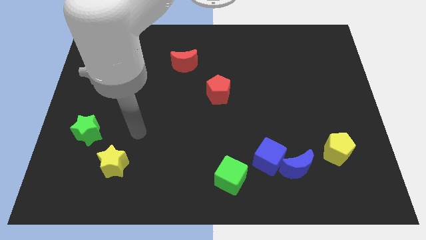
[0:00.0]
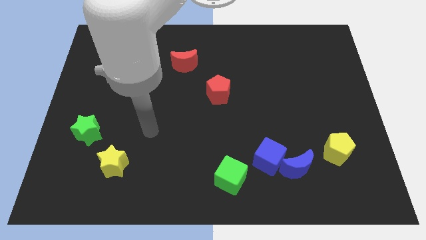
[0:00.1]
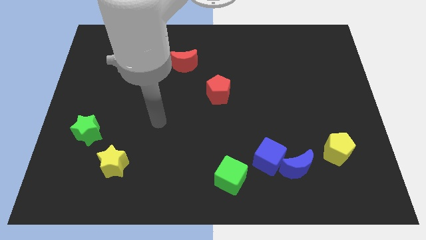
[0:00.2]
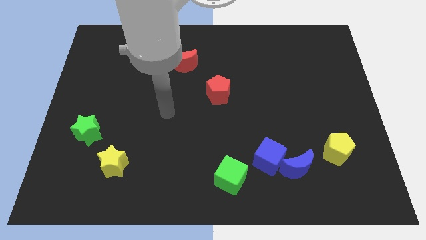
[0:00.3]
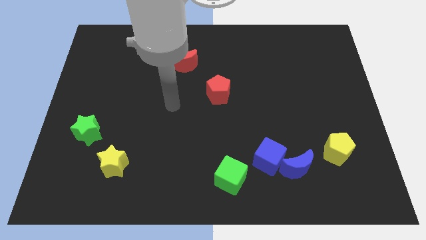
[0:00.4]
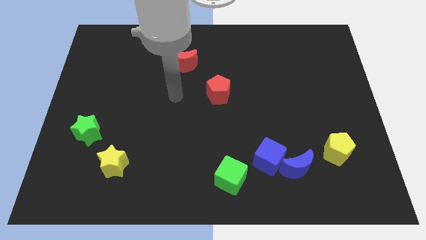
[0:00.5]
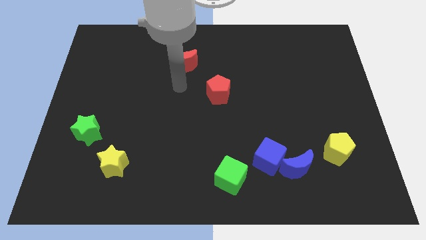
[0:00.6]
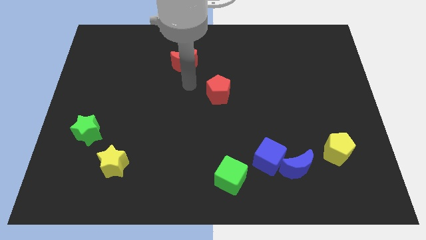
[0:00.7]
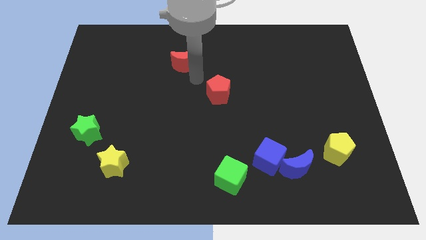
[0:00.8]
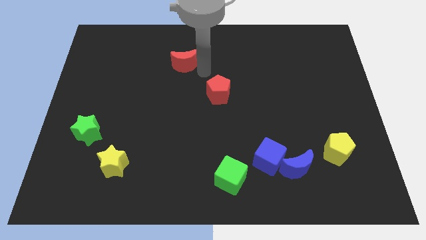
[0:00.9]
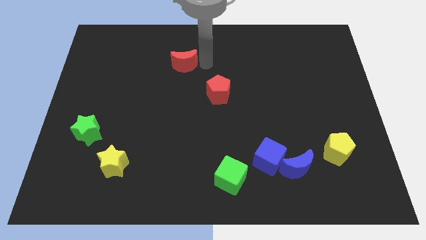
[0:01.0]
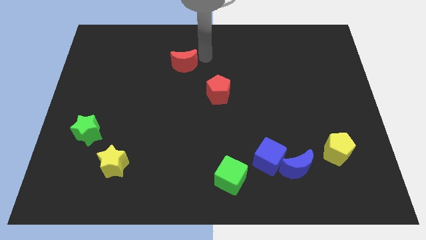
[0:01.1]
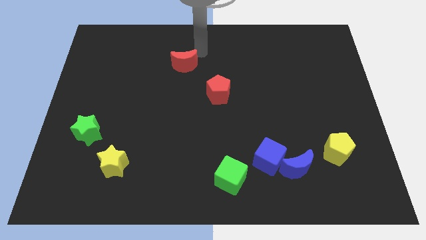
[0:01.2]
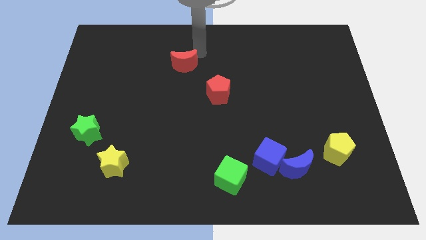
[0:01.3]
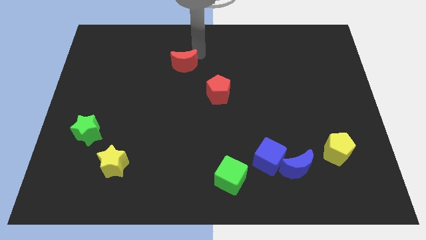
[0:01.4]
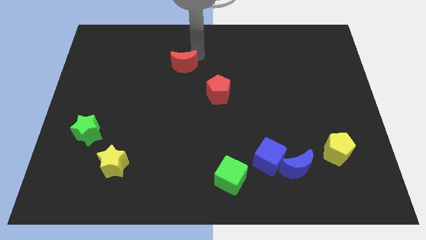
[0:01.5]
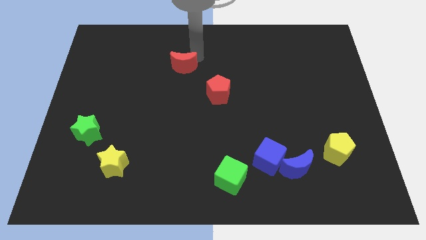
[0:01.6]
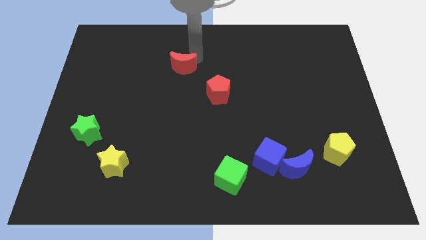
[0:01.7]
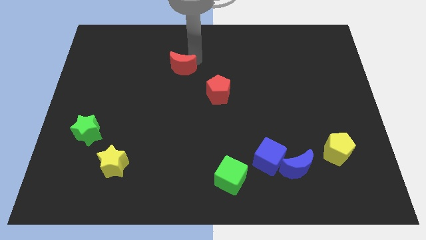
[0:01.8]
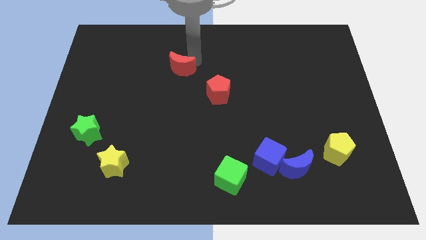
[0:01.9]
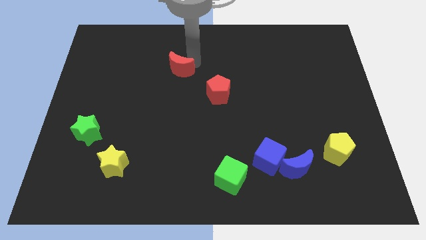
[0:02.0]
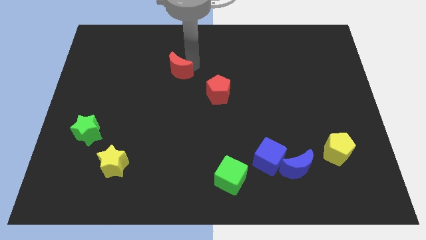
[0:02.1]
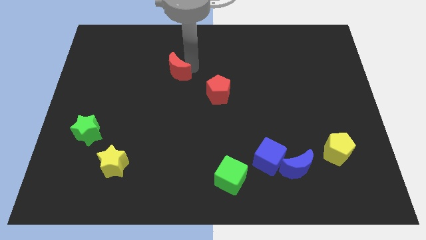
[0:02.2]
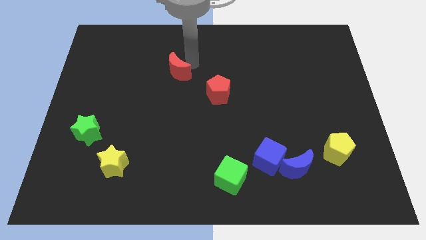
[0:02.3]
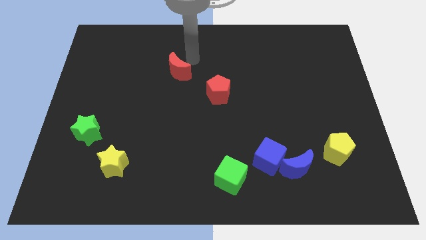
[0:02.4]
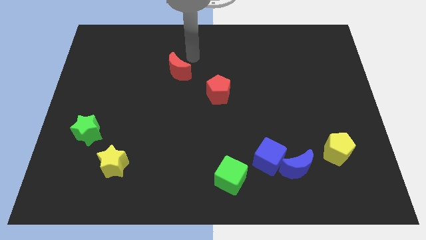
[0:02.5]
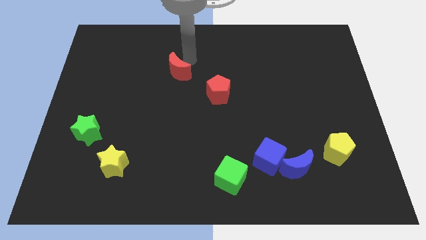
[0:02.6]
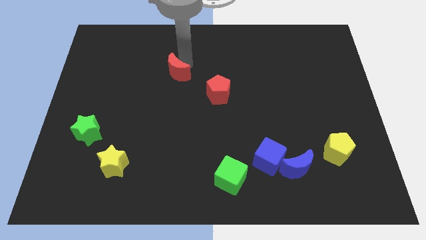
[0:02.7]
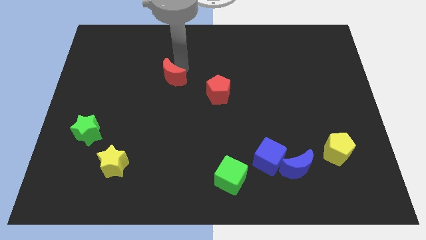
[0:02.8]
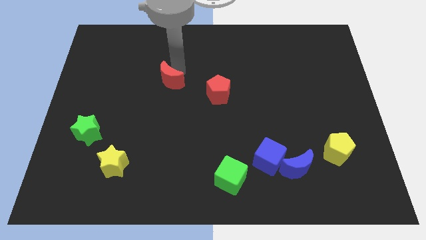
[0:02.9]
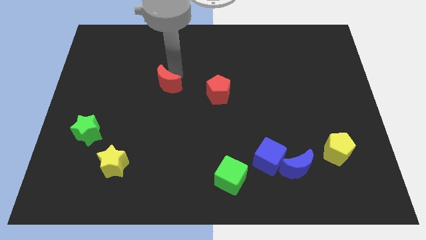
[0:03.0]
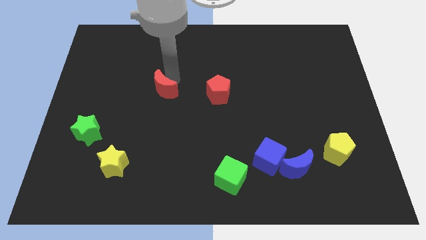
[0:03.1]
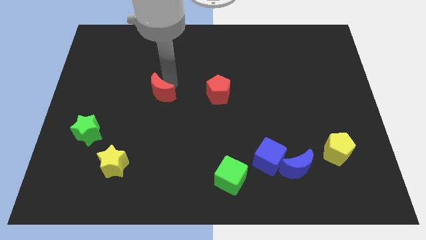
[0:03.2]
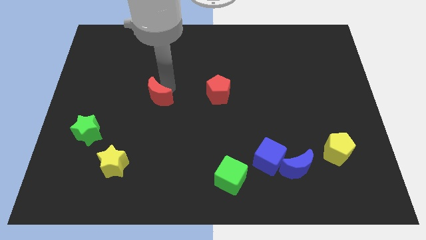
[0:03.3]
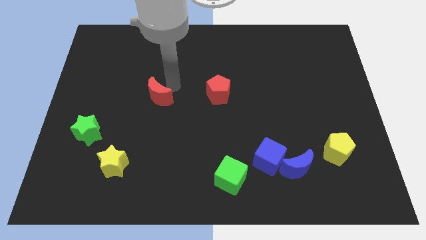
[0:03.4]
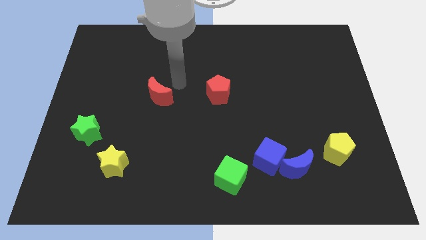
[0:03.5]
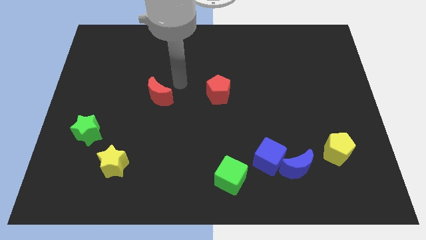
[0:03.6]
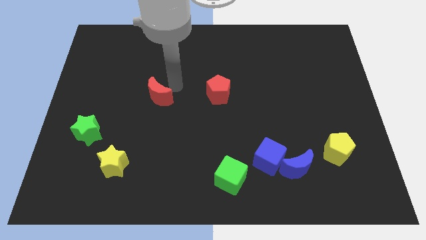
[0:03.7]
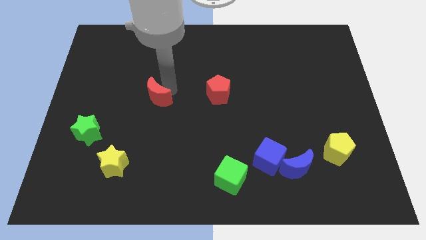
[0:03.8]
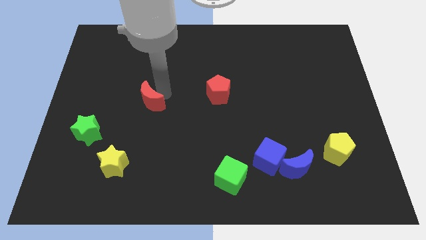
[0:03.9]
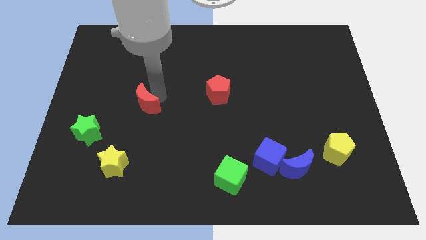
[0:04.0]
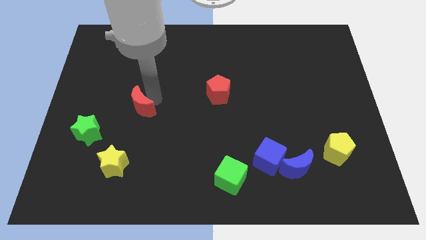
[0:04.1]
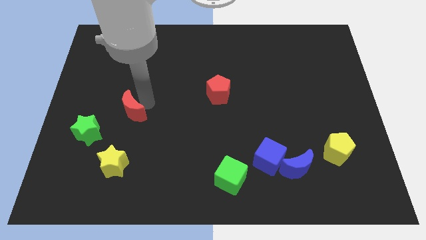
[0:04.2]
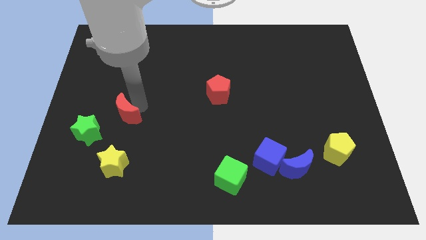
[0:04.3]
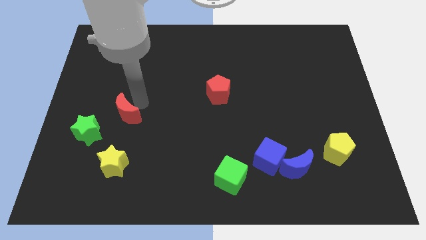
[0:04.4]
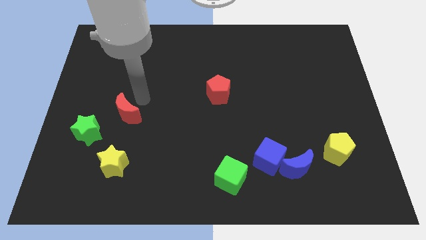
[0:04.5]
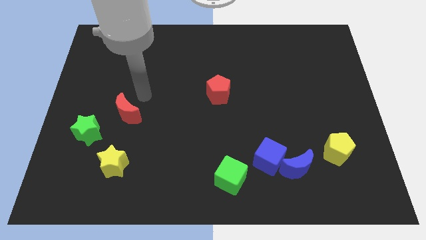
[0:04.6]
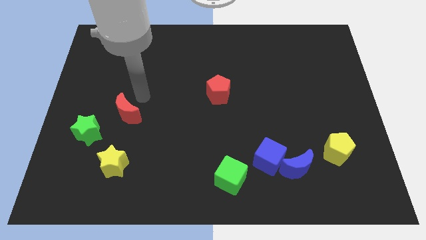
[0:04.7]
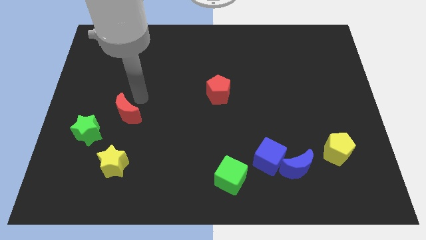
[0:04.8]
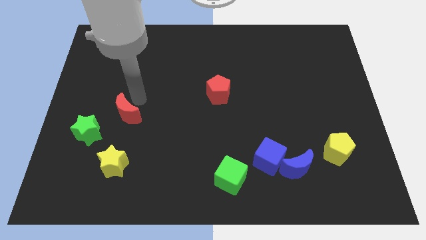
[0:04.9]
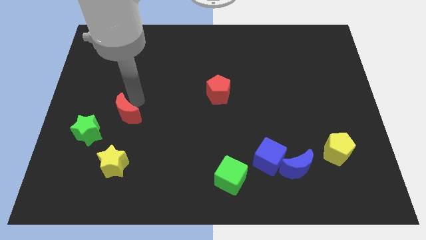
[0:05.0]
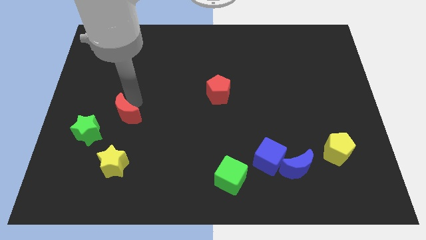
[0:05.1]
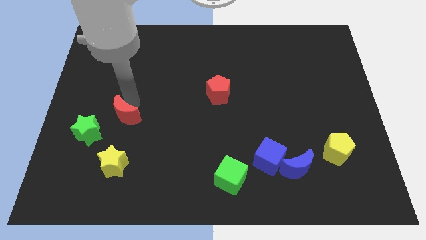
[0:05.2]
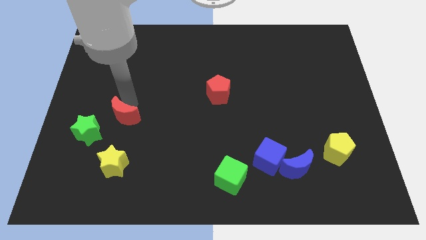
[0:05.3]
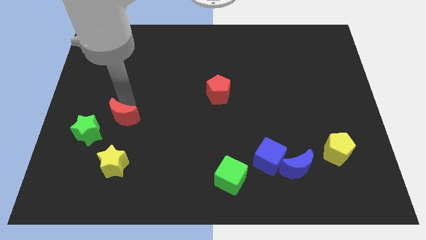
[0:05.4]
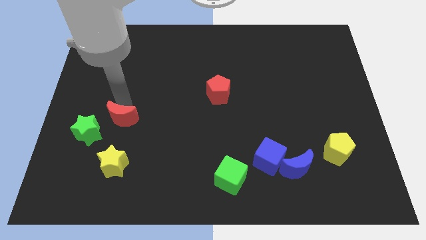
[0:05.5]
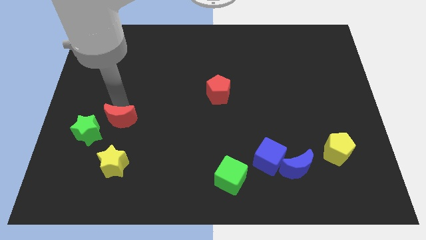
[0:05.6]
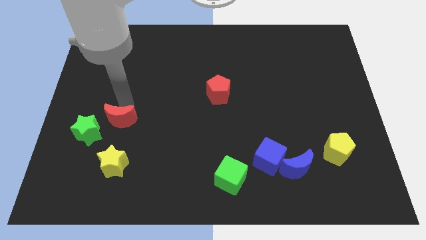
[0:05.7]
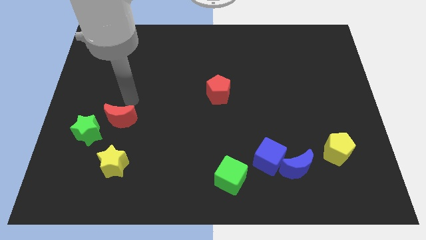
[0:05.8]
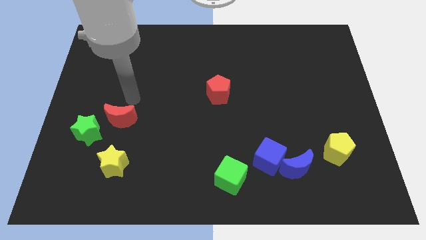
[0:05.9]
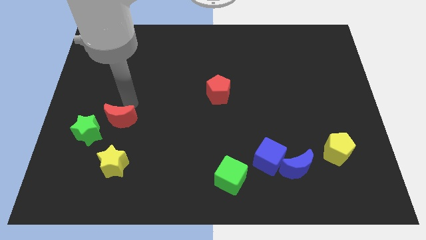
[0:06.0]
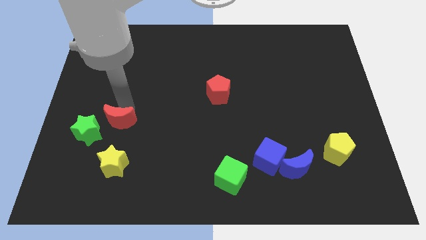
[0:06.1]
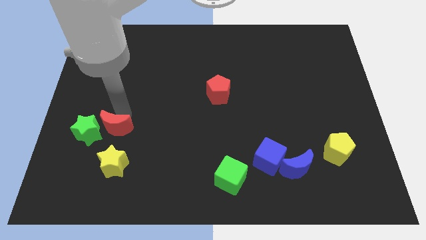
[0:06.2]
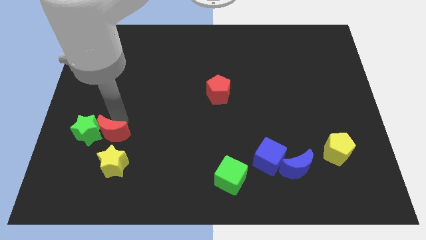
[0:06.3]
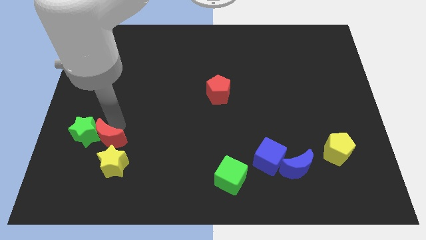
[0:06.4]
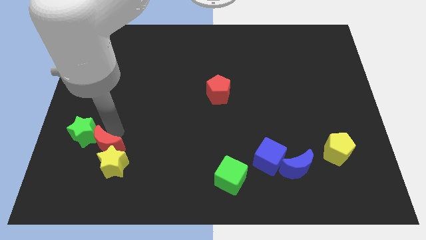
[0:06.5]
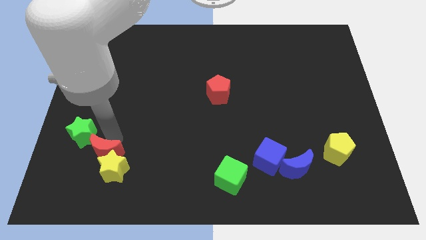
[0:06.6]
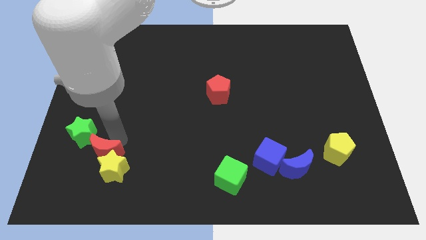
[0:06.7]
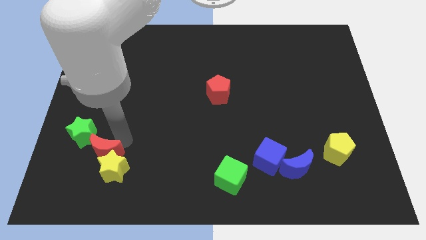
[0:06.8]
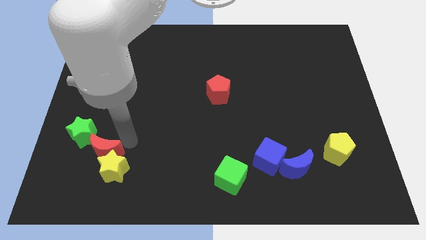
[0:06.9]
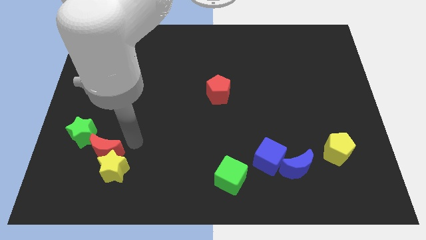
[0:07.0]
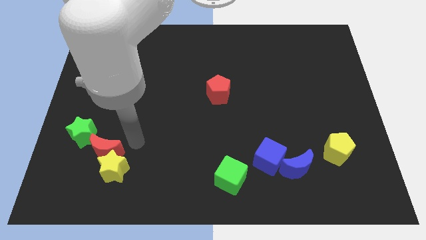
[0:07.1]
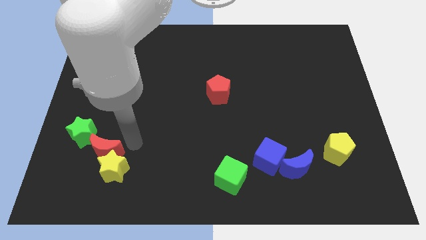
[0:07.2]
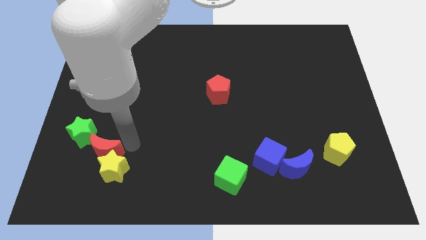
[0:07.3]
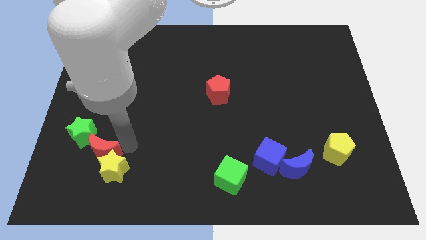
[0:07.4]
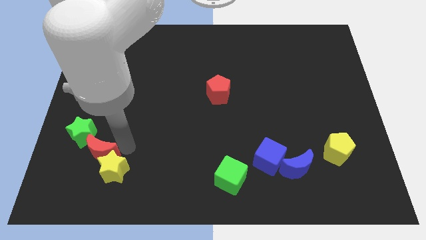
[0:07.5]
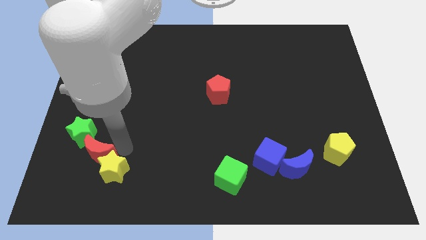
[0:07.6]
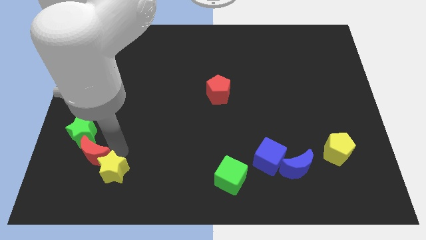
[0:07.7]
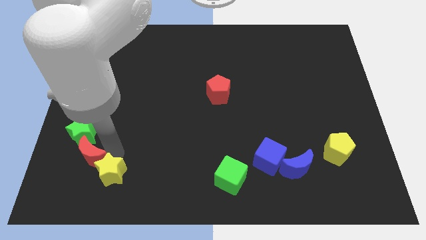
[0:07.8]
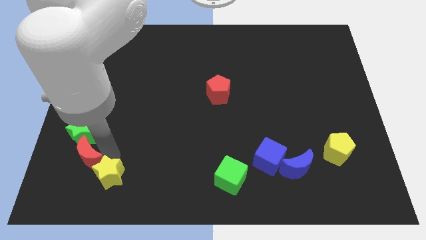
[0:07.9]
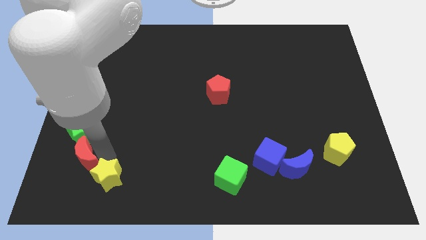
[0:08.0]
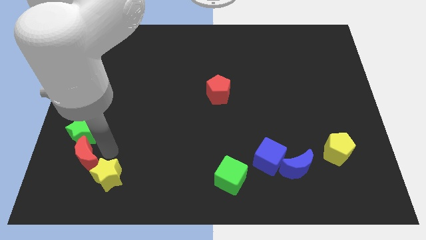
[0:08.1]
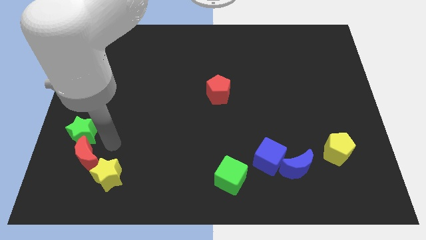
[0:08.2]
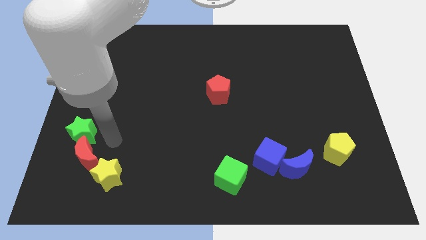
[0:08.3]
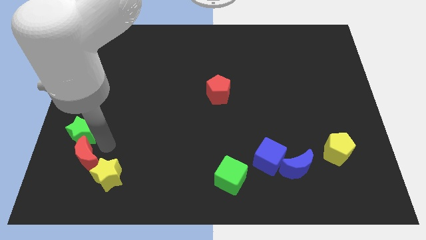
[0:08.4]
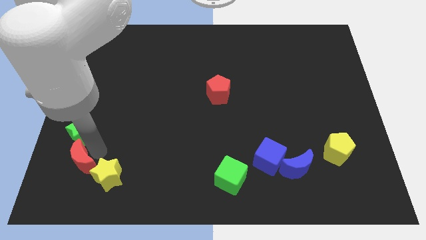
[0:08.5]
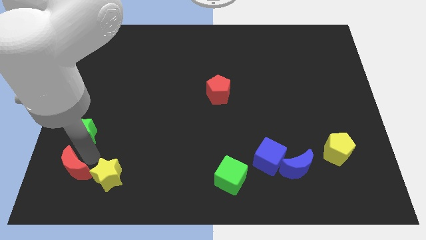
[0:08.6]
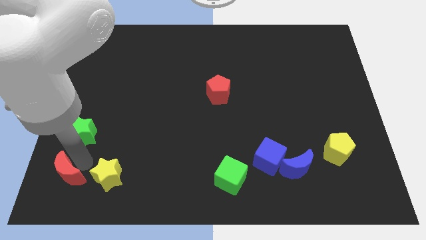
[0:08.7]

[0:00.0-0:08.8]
move the red moon to the bottom left of the board
